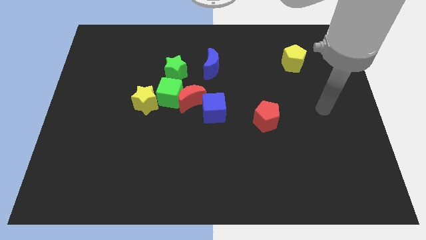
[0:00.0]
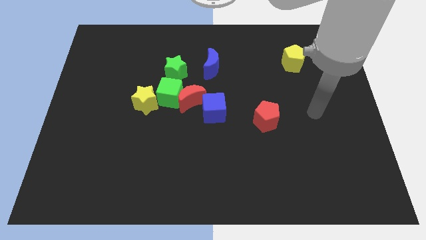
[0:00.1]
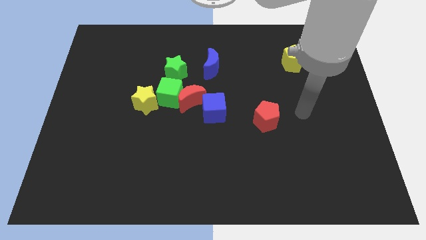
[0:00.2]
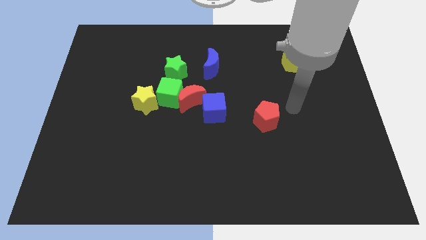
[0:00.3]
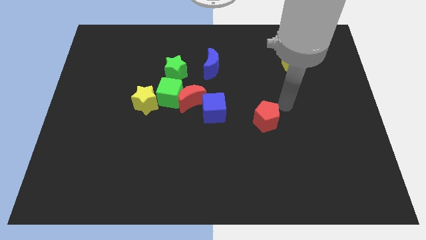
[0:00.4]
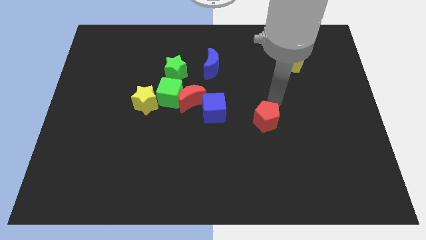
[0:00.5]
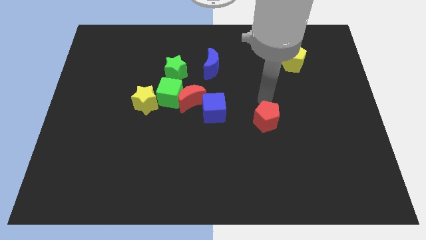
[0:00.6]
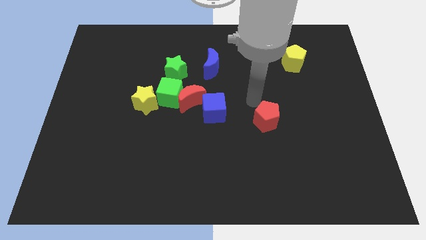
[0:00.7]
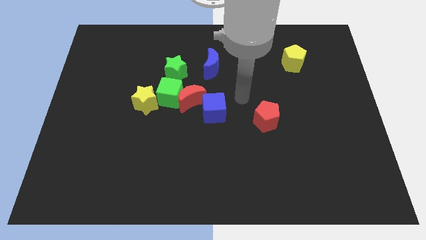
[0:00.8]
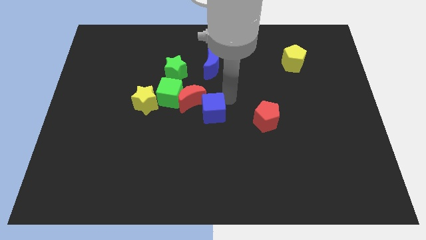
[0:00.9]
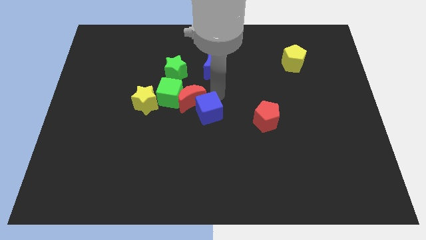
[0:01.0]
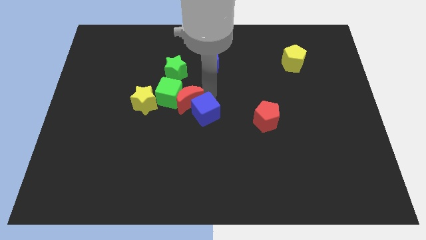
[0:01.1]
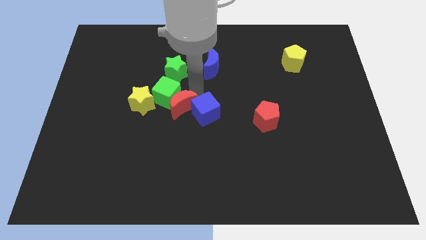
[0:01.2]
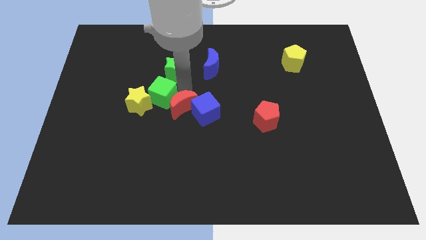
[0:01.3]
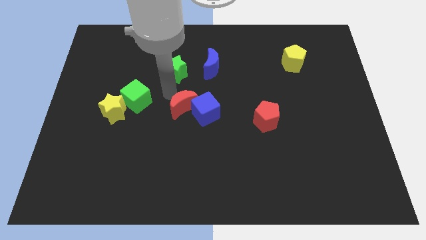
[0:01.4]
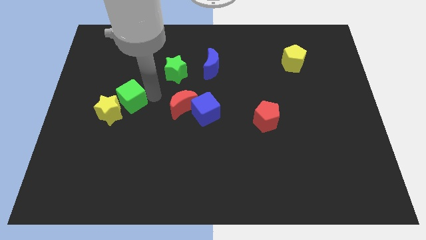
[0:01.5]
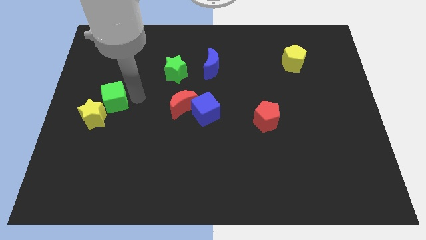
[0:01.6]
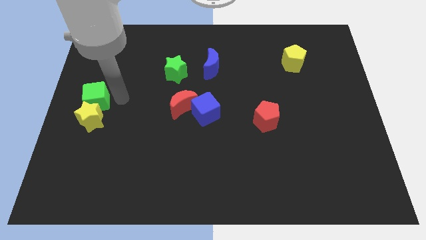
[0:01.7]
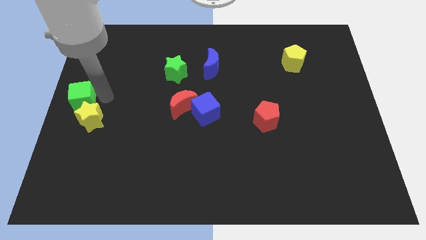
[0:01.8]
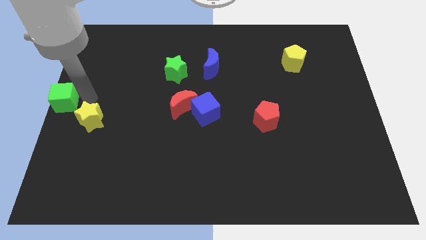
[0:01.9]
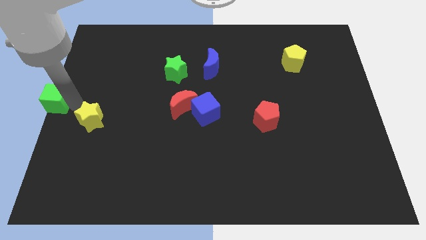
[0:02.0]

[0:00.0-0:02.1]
move the yellow star away from the green cube

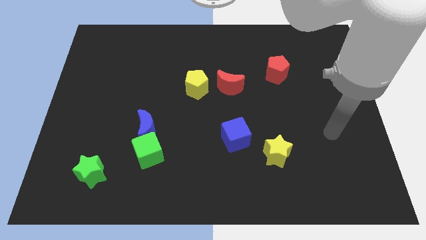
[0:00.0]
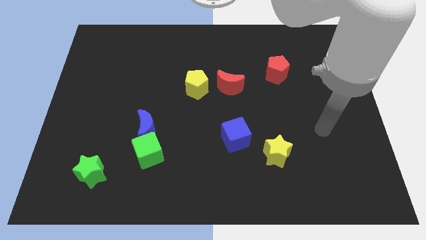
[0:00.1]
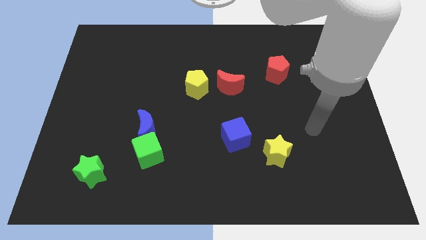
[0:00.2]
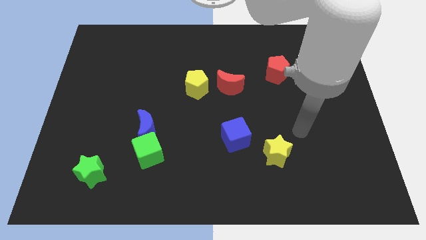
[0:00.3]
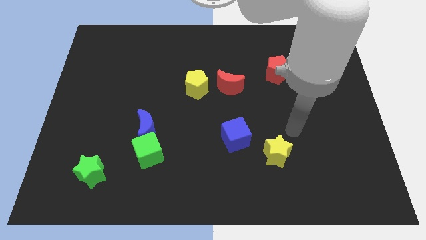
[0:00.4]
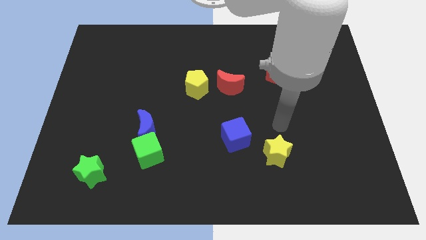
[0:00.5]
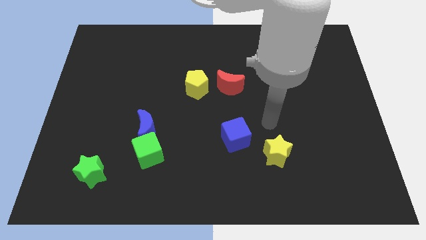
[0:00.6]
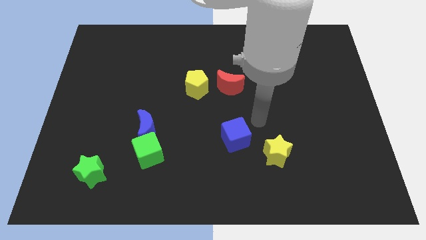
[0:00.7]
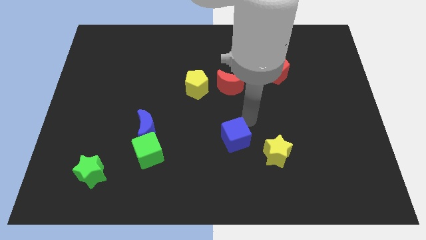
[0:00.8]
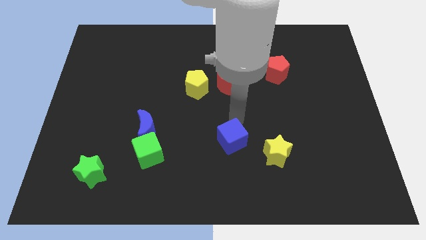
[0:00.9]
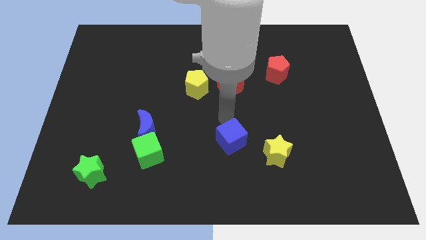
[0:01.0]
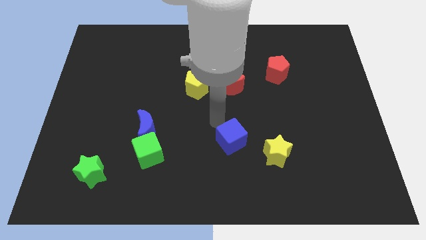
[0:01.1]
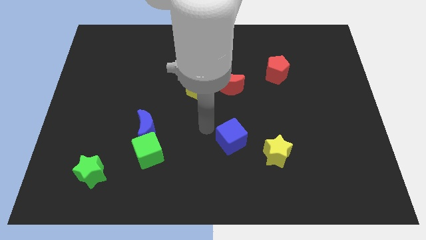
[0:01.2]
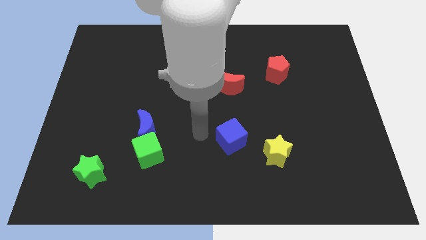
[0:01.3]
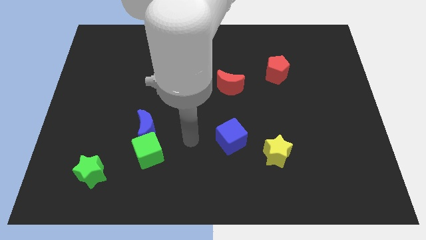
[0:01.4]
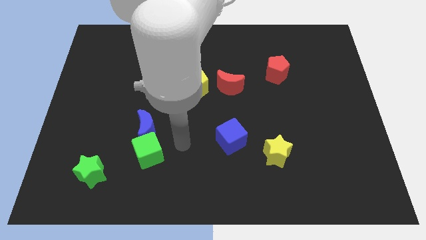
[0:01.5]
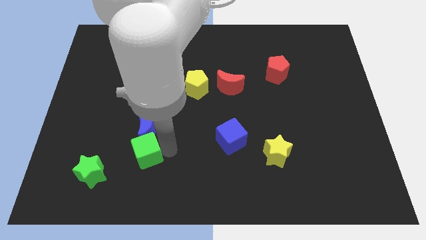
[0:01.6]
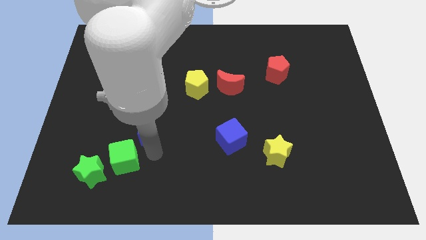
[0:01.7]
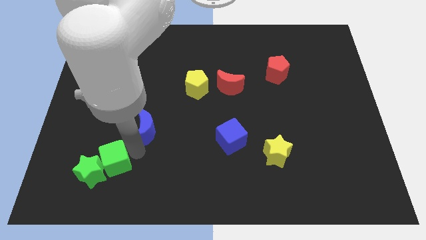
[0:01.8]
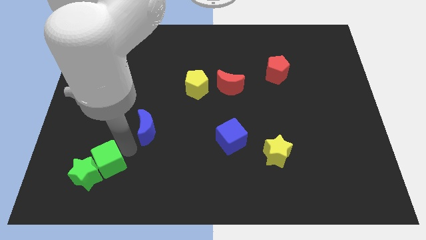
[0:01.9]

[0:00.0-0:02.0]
pull the blue moon apart from the green cube

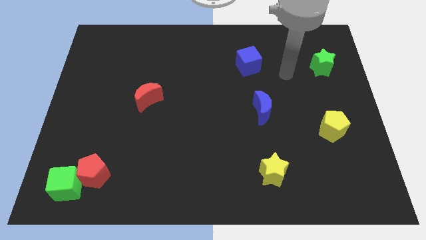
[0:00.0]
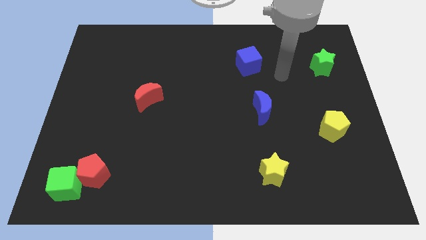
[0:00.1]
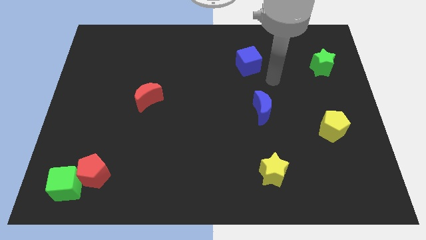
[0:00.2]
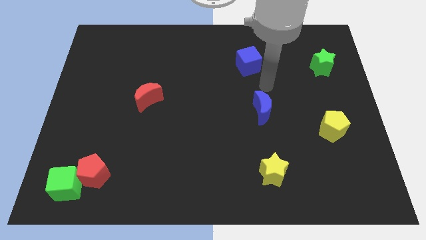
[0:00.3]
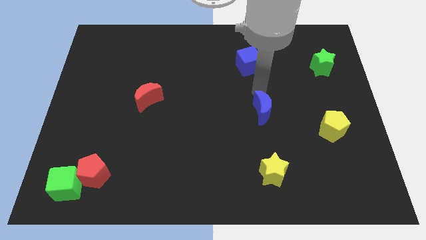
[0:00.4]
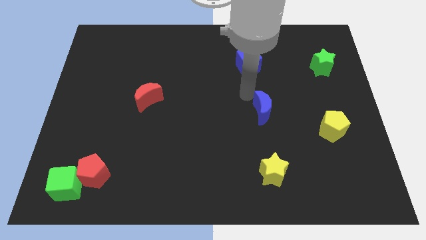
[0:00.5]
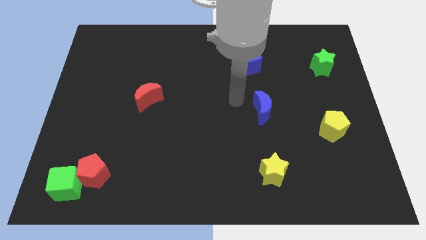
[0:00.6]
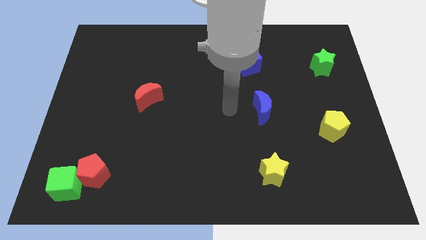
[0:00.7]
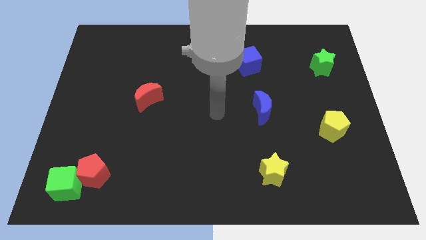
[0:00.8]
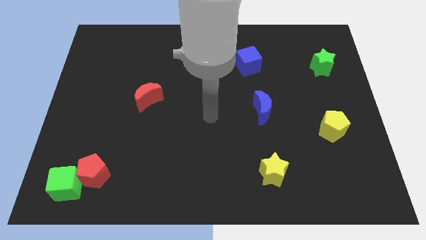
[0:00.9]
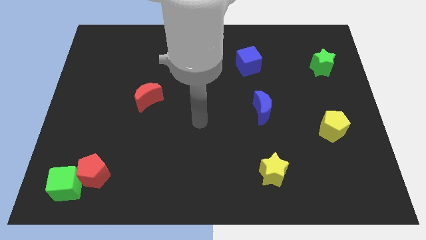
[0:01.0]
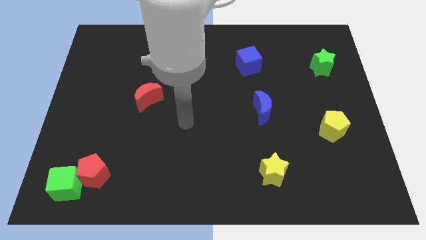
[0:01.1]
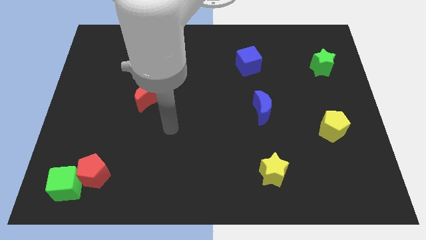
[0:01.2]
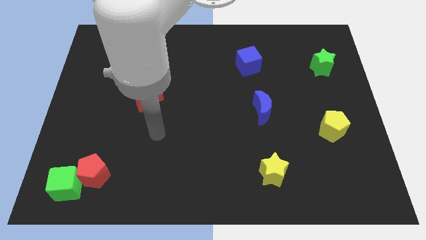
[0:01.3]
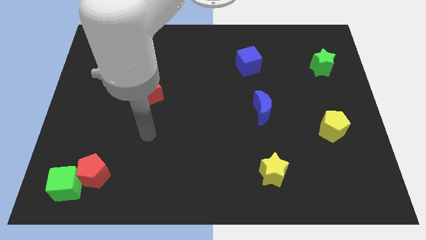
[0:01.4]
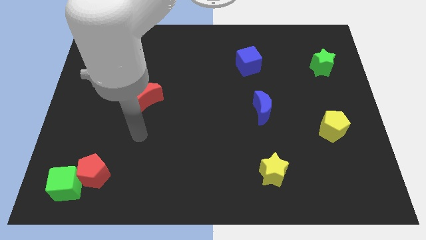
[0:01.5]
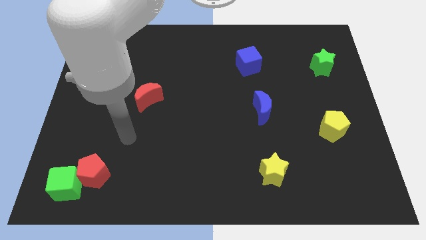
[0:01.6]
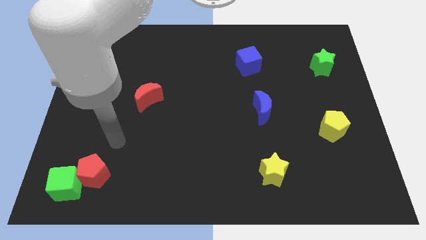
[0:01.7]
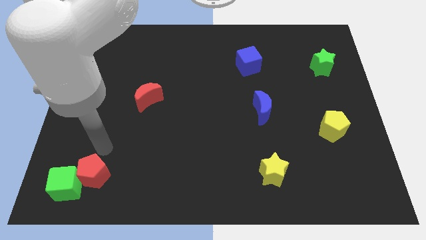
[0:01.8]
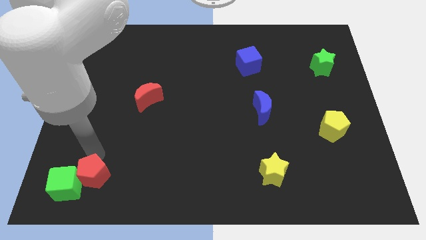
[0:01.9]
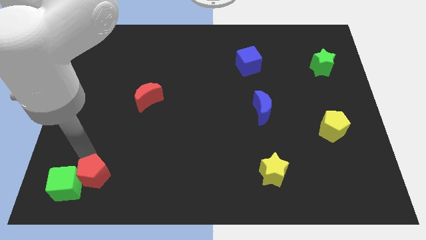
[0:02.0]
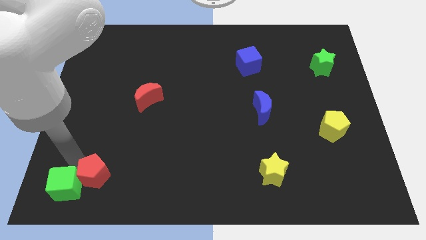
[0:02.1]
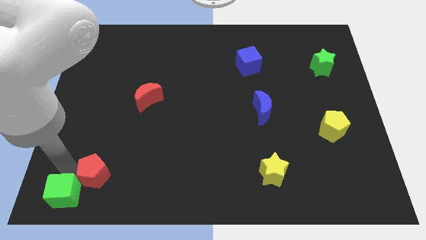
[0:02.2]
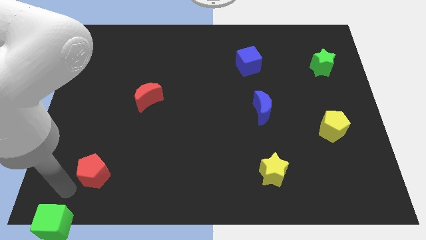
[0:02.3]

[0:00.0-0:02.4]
separate the red pentagon from the green cube

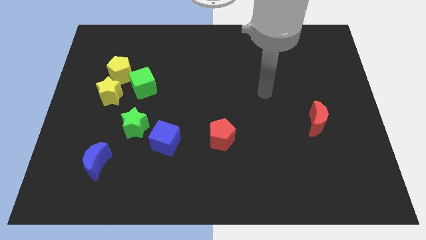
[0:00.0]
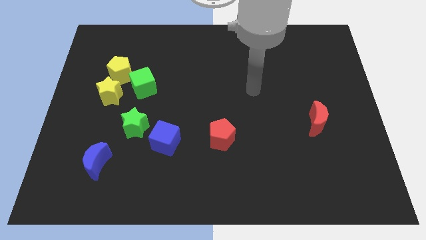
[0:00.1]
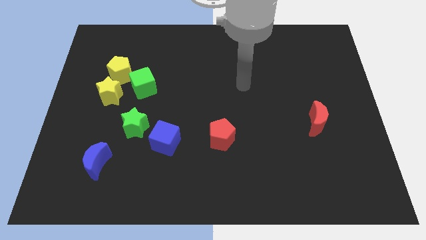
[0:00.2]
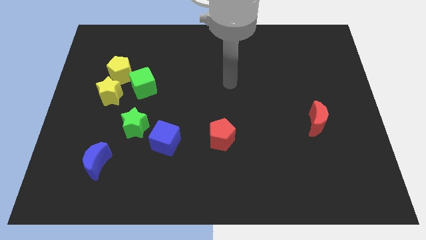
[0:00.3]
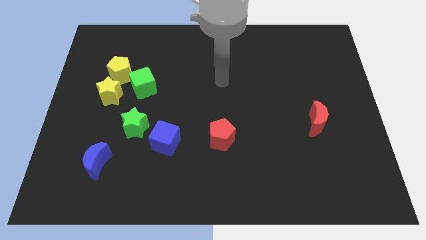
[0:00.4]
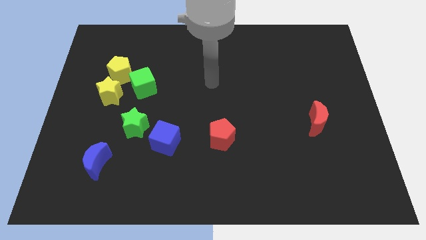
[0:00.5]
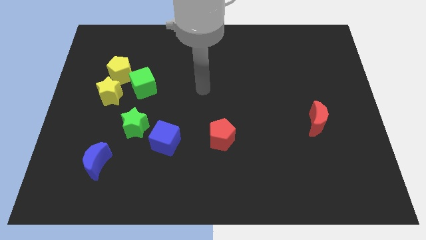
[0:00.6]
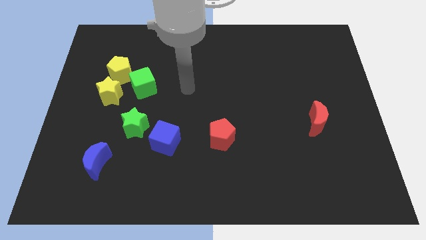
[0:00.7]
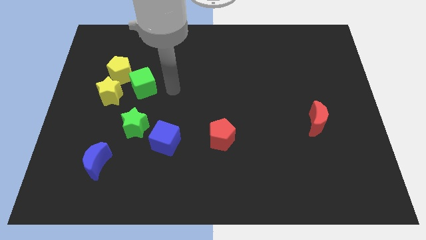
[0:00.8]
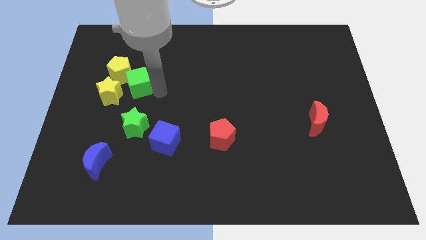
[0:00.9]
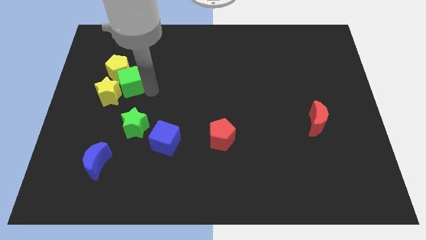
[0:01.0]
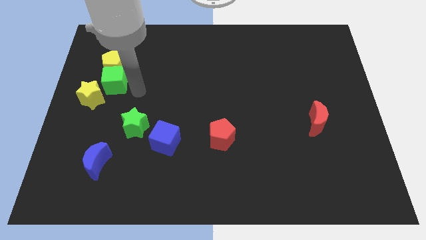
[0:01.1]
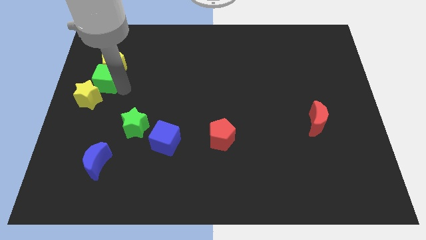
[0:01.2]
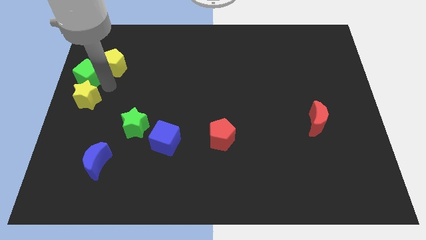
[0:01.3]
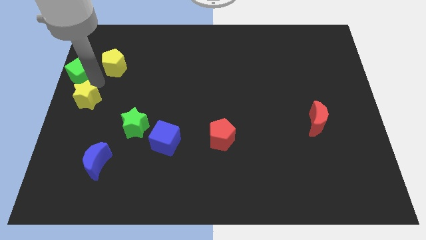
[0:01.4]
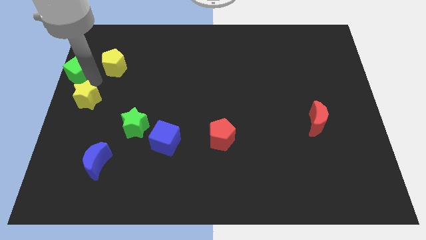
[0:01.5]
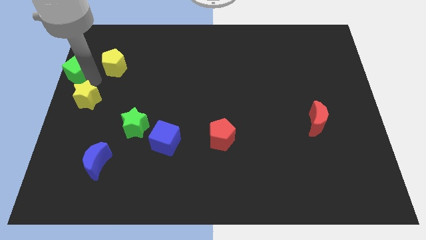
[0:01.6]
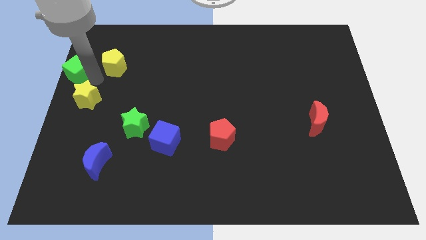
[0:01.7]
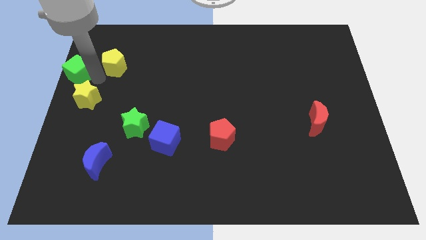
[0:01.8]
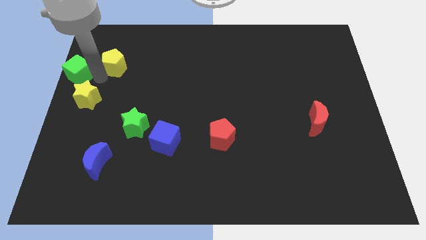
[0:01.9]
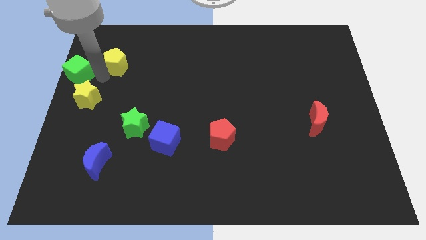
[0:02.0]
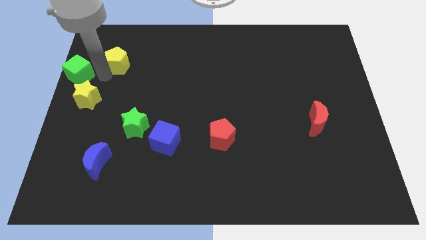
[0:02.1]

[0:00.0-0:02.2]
separate the yellow pentagon from the yellow star and green cube

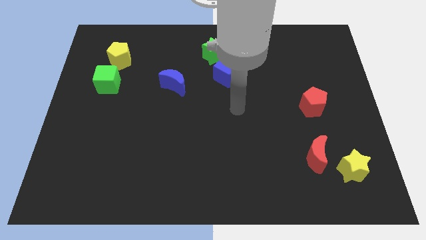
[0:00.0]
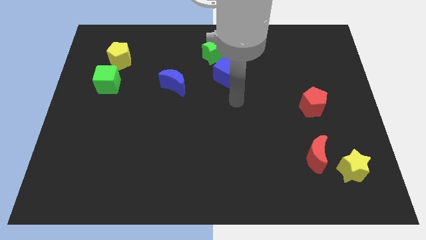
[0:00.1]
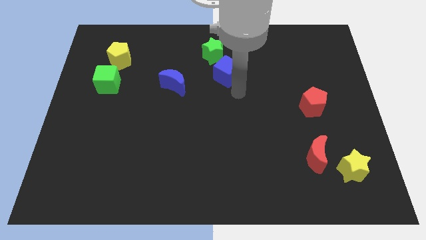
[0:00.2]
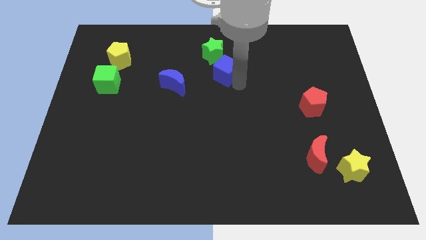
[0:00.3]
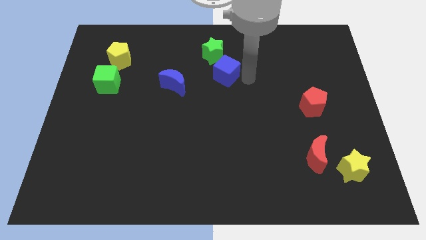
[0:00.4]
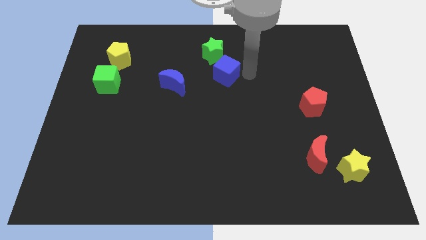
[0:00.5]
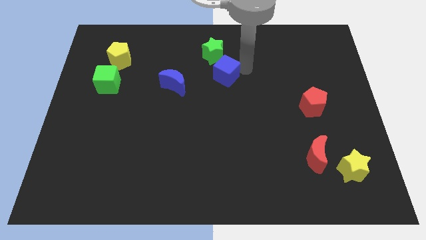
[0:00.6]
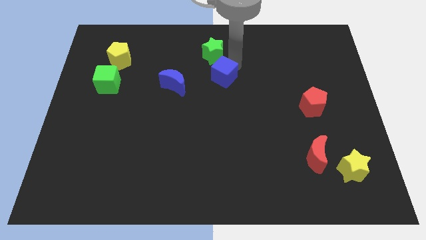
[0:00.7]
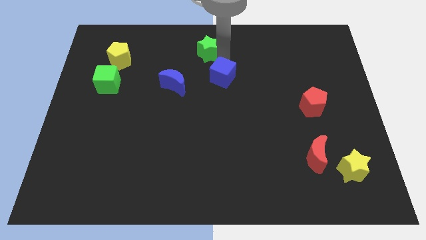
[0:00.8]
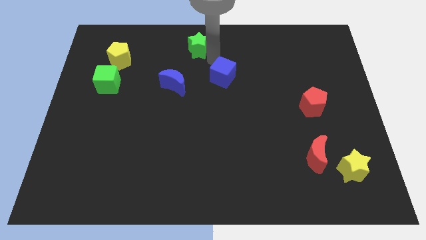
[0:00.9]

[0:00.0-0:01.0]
move the blue cube away from the green star
